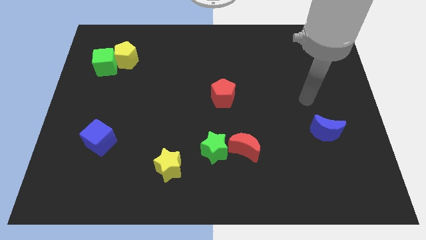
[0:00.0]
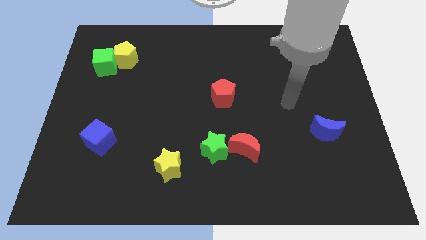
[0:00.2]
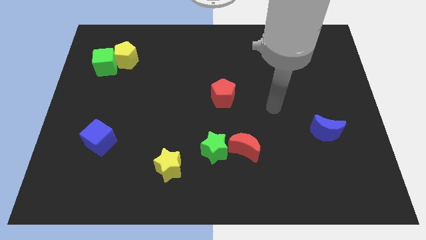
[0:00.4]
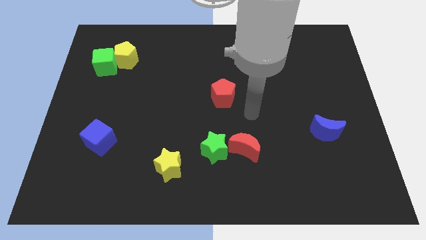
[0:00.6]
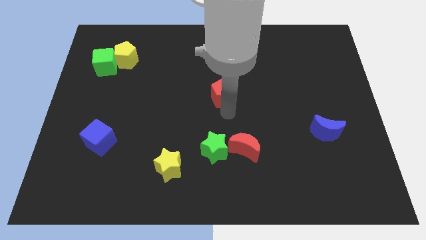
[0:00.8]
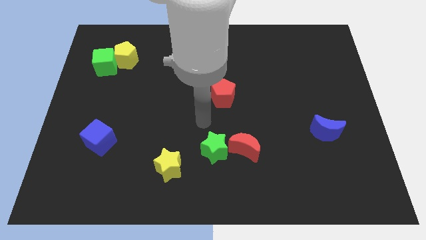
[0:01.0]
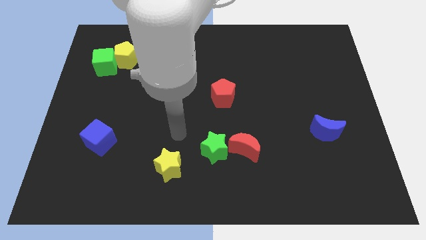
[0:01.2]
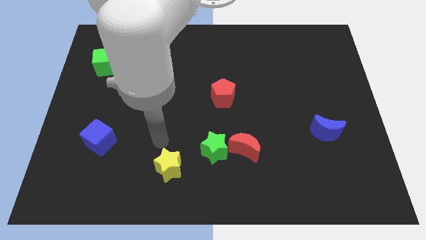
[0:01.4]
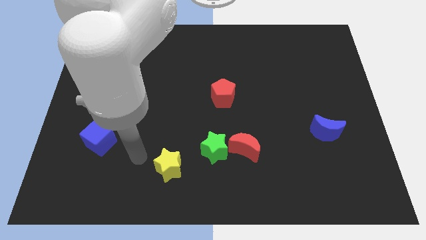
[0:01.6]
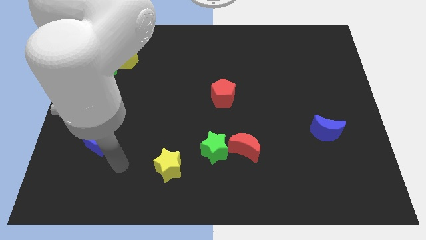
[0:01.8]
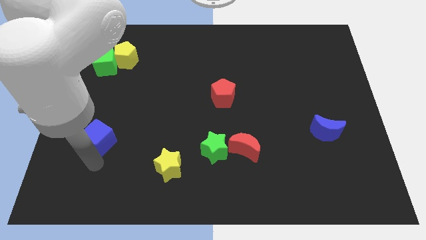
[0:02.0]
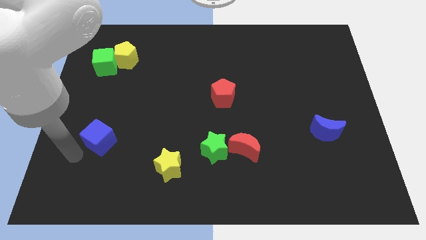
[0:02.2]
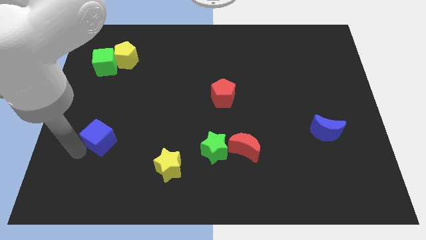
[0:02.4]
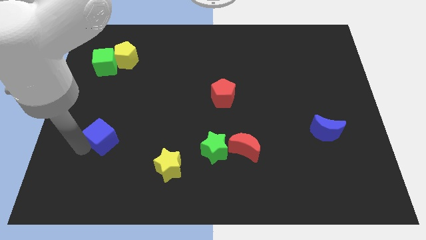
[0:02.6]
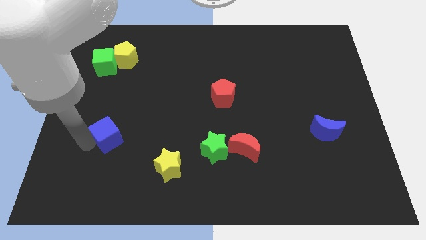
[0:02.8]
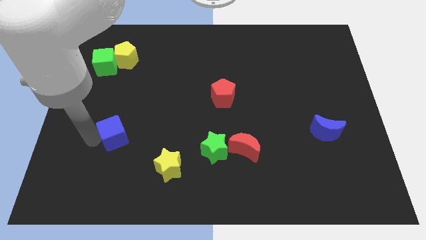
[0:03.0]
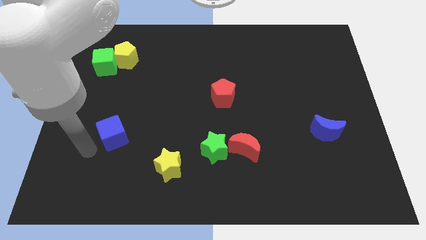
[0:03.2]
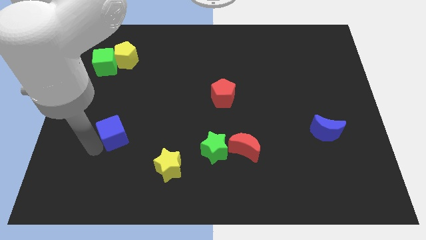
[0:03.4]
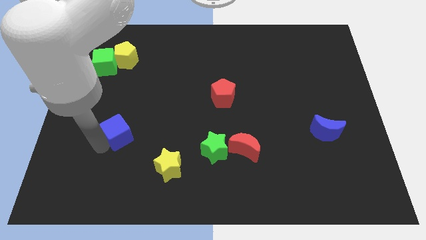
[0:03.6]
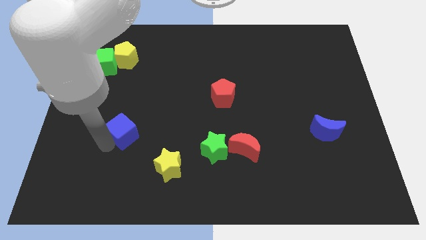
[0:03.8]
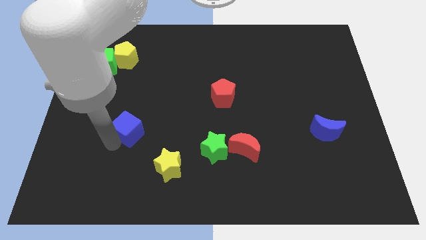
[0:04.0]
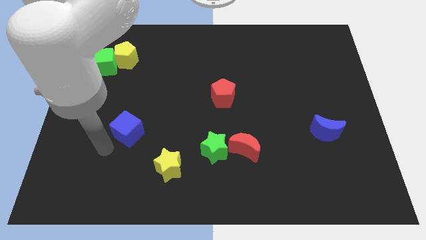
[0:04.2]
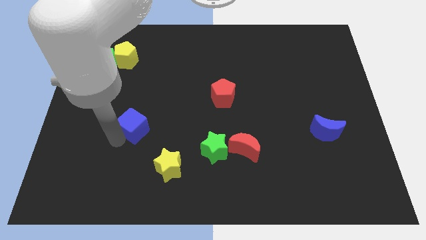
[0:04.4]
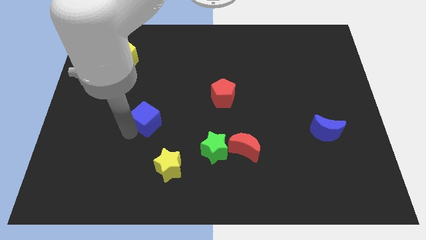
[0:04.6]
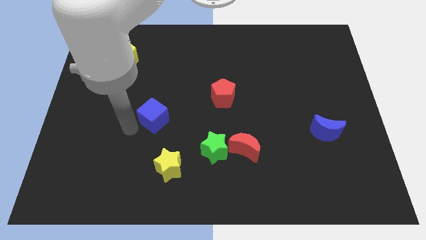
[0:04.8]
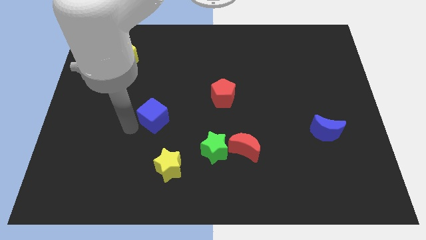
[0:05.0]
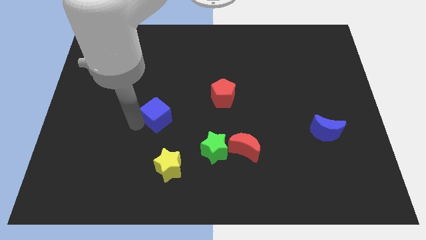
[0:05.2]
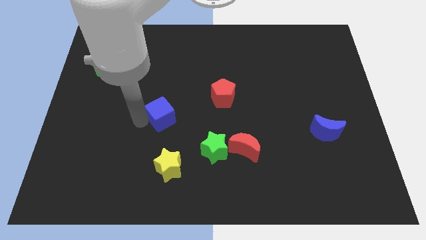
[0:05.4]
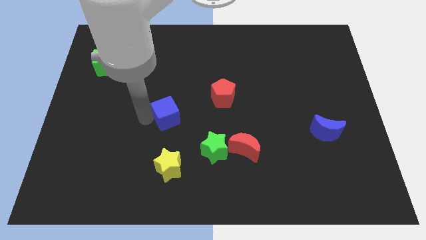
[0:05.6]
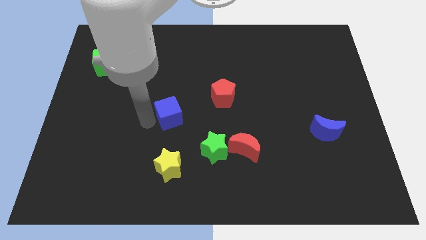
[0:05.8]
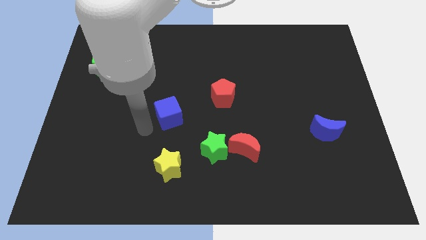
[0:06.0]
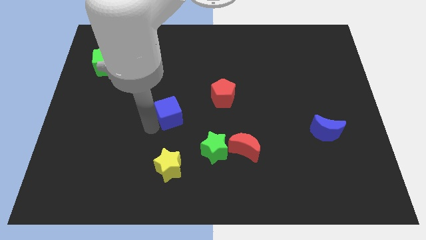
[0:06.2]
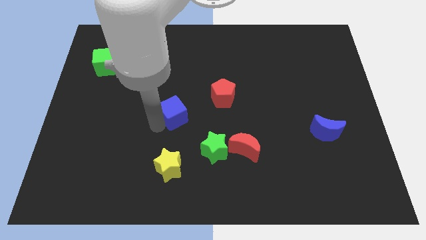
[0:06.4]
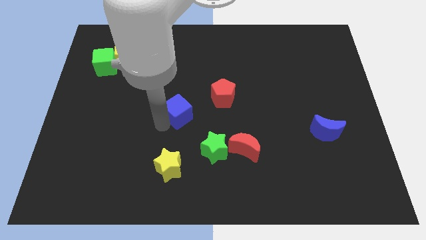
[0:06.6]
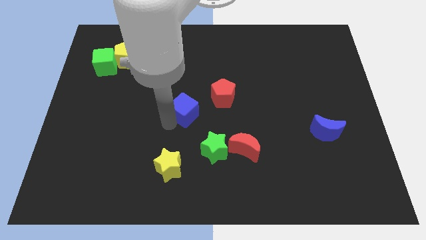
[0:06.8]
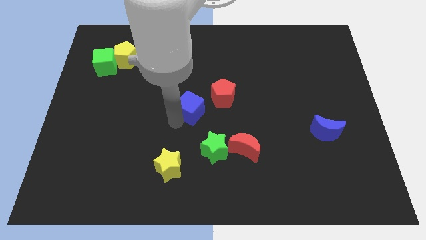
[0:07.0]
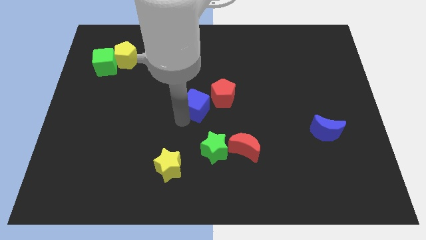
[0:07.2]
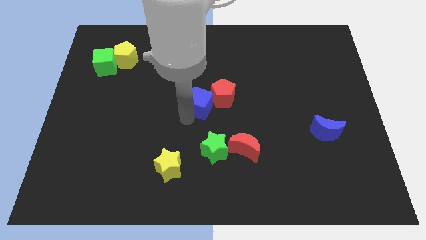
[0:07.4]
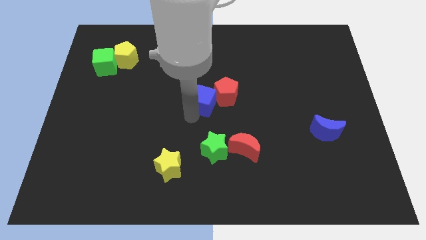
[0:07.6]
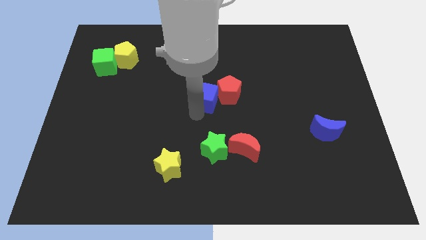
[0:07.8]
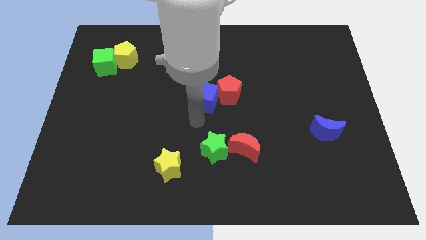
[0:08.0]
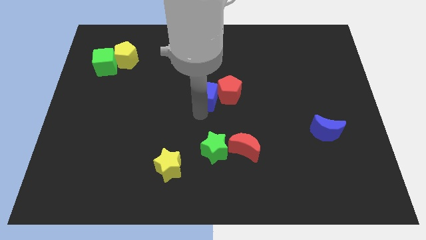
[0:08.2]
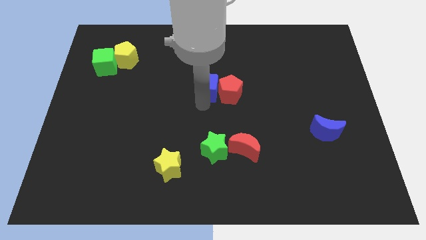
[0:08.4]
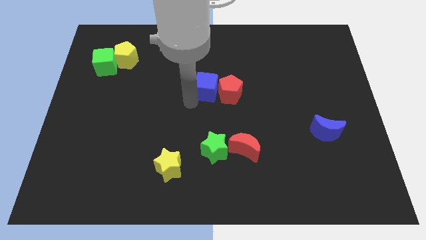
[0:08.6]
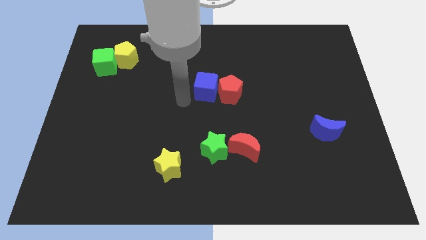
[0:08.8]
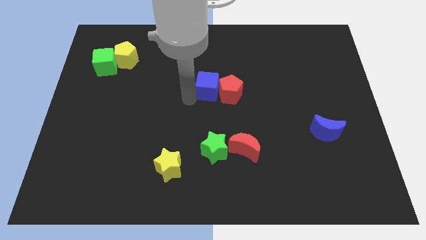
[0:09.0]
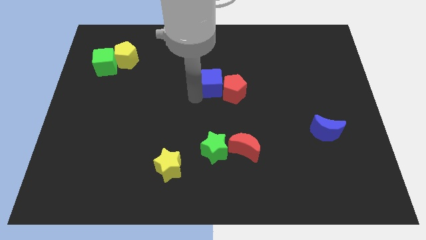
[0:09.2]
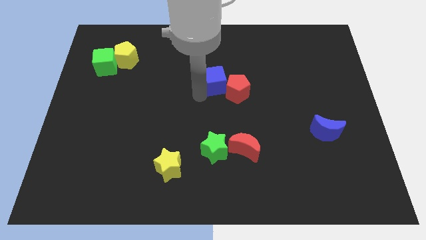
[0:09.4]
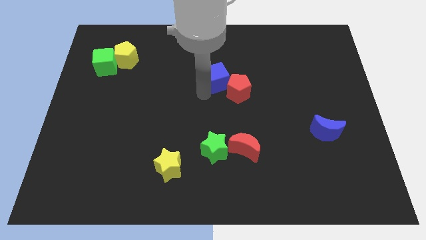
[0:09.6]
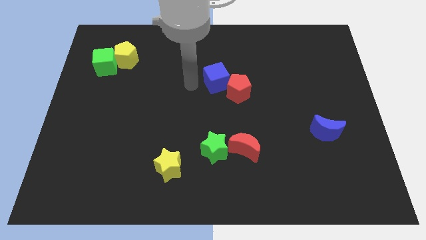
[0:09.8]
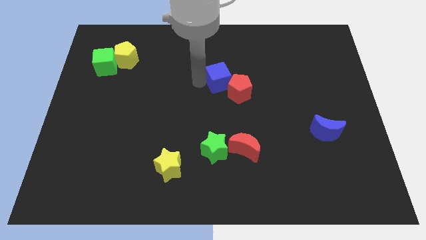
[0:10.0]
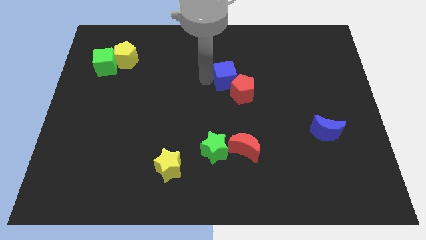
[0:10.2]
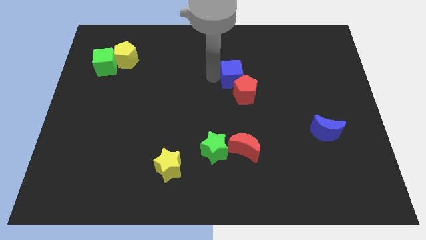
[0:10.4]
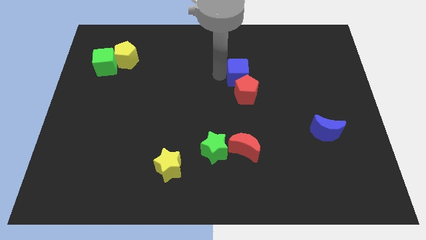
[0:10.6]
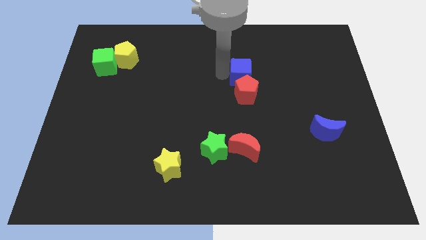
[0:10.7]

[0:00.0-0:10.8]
put the blue cube to the top right side of the red pentagon

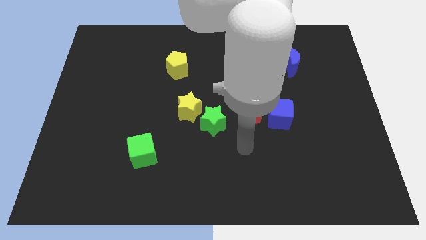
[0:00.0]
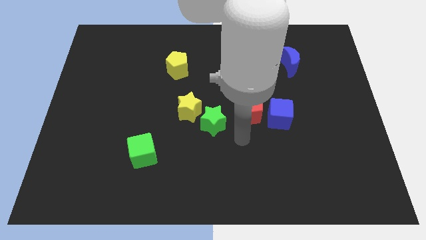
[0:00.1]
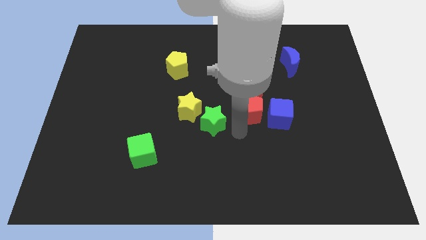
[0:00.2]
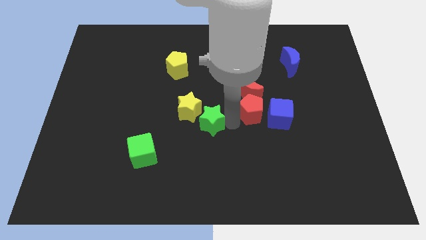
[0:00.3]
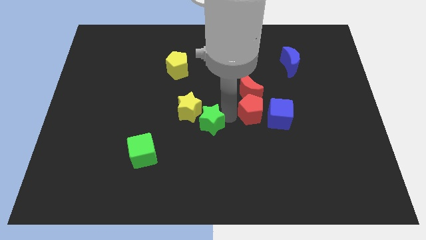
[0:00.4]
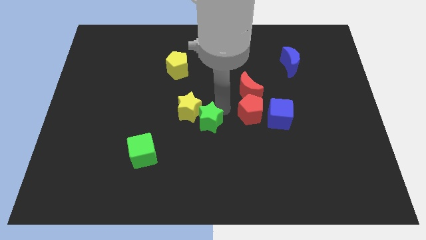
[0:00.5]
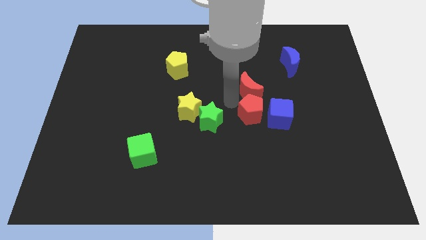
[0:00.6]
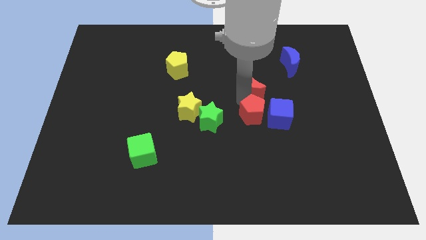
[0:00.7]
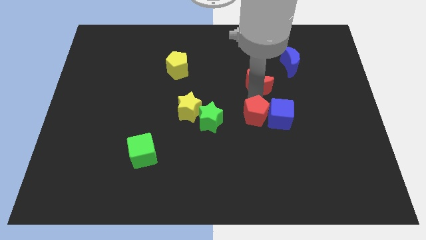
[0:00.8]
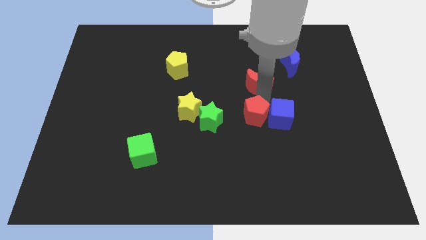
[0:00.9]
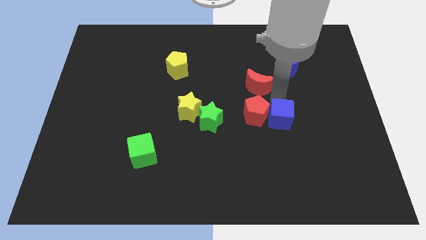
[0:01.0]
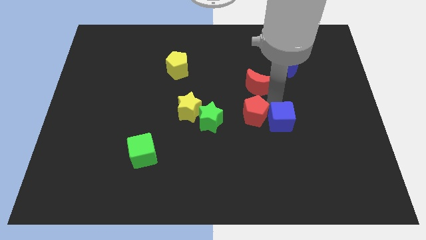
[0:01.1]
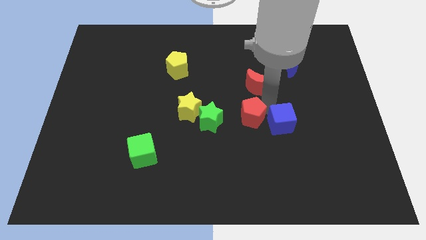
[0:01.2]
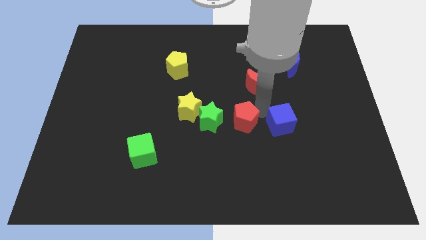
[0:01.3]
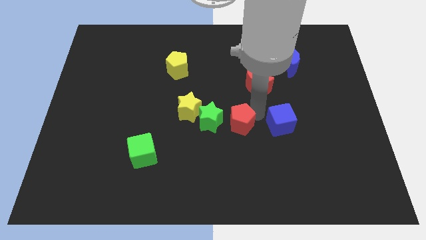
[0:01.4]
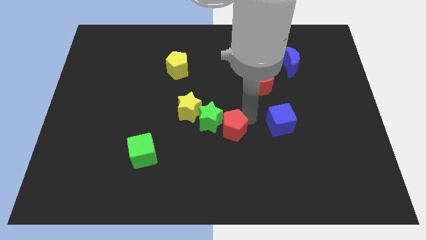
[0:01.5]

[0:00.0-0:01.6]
push the red pentagon to the bottom right of the yellow star
